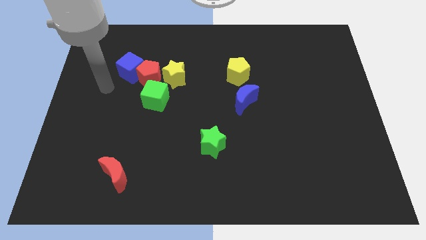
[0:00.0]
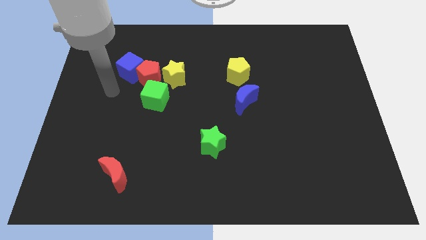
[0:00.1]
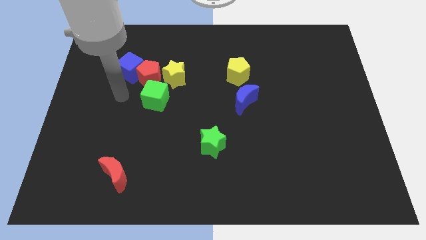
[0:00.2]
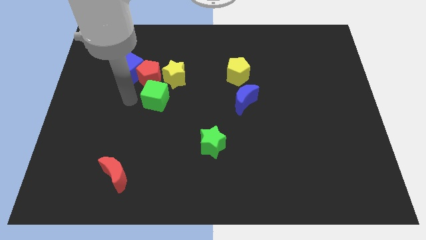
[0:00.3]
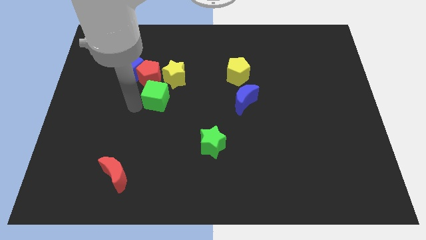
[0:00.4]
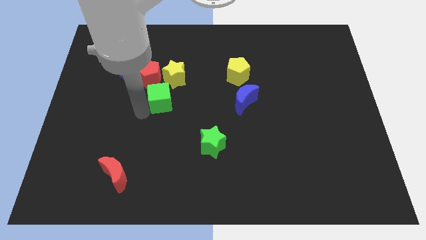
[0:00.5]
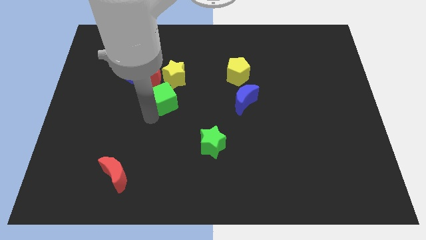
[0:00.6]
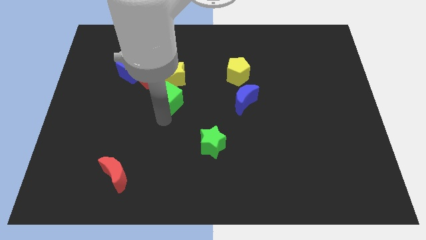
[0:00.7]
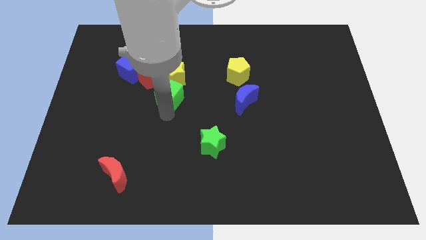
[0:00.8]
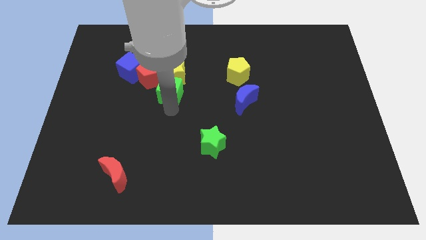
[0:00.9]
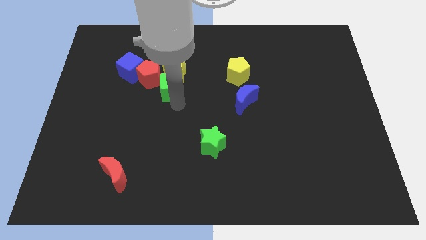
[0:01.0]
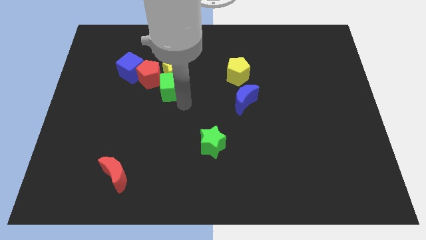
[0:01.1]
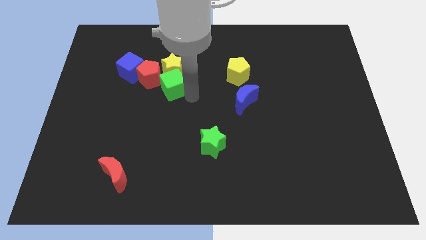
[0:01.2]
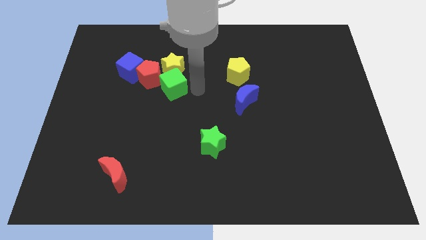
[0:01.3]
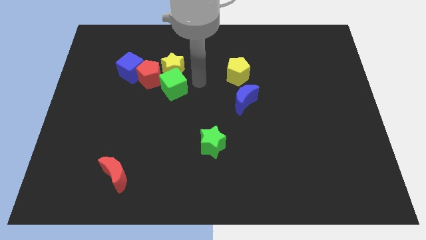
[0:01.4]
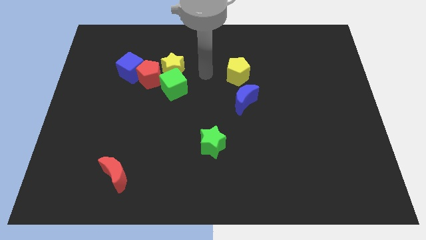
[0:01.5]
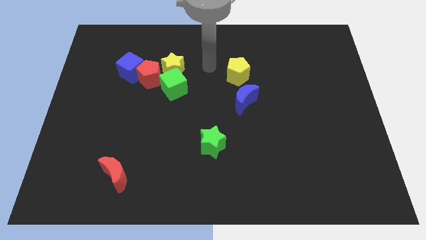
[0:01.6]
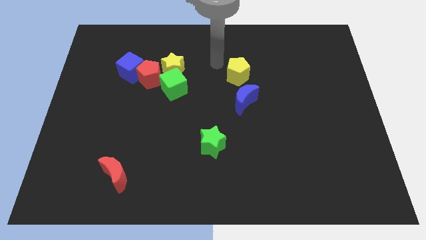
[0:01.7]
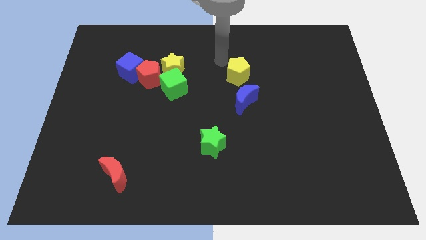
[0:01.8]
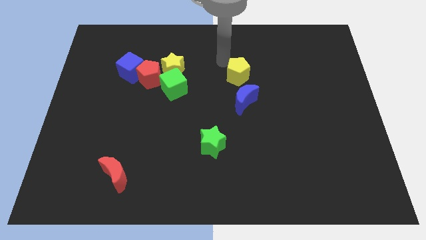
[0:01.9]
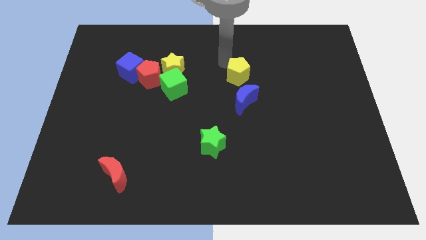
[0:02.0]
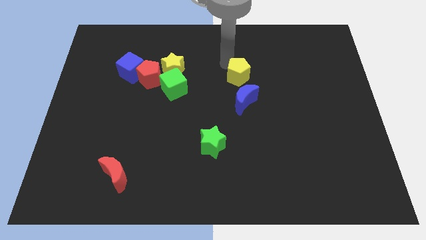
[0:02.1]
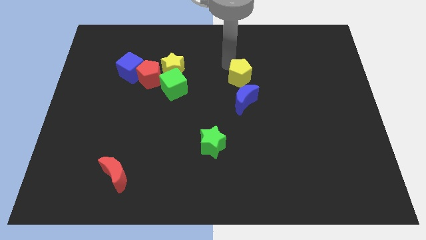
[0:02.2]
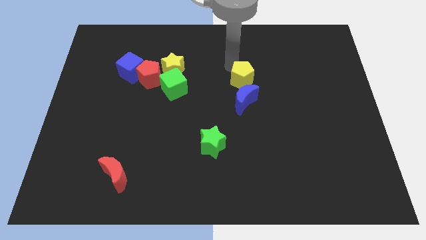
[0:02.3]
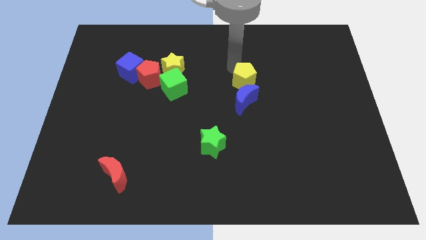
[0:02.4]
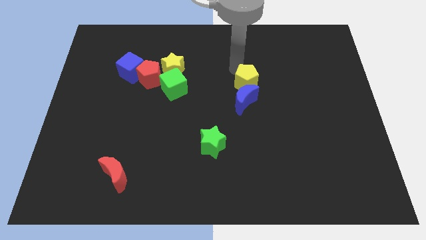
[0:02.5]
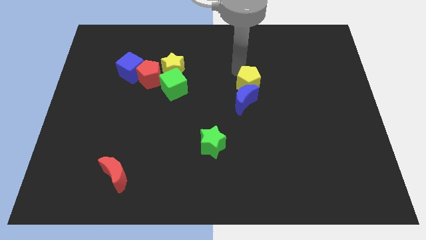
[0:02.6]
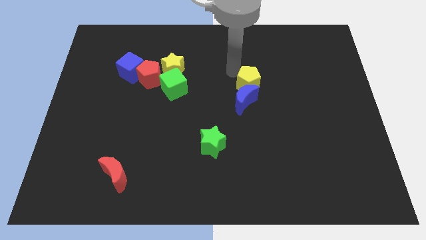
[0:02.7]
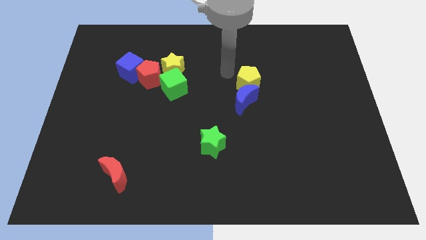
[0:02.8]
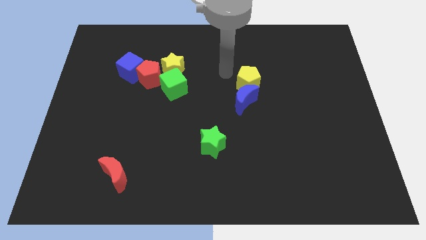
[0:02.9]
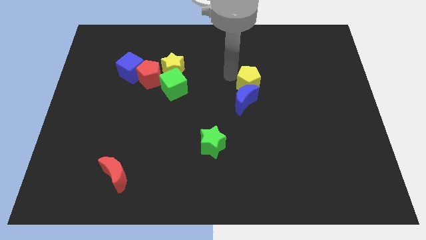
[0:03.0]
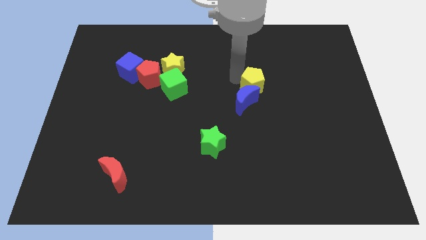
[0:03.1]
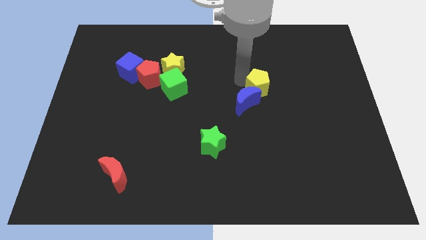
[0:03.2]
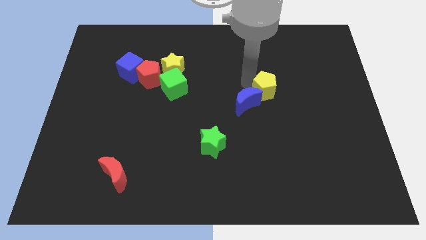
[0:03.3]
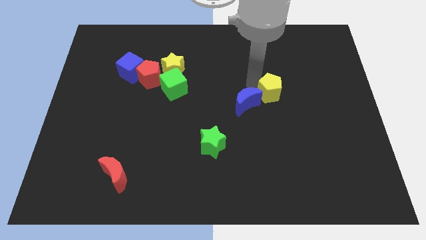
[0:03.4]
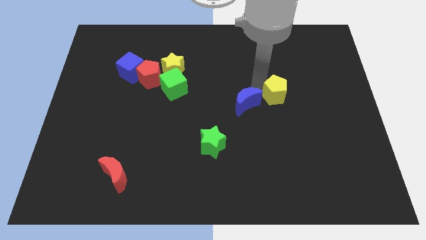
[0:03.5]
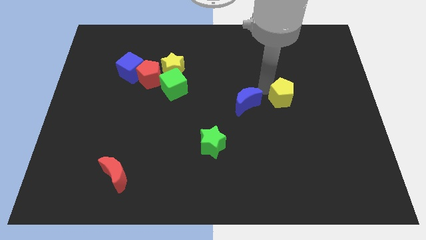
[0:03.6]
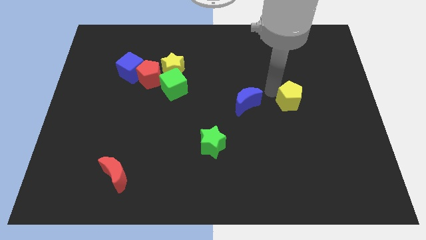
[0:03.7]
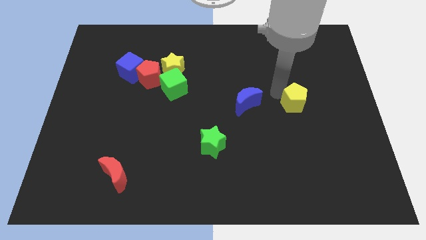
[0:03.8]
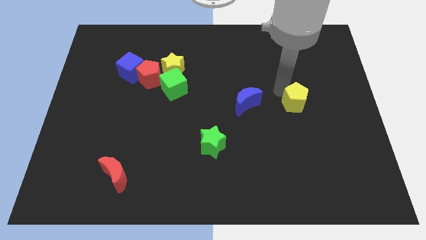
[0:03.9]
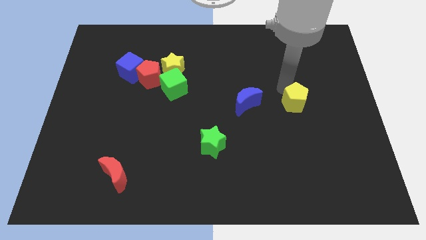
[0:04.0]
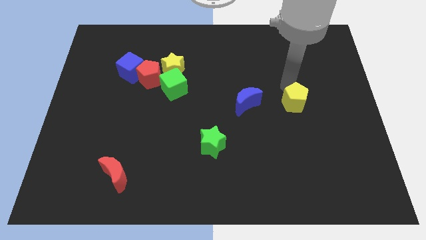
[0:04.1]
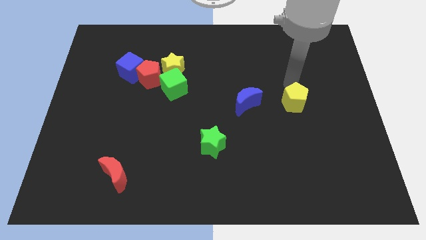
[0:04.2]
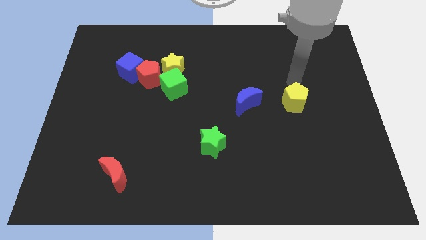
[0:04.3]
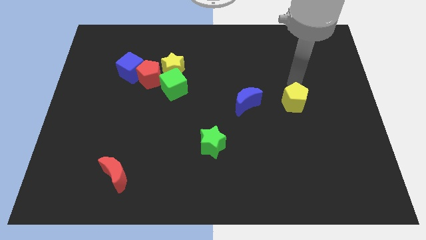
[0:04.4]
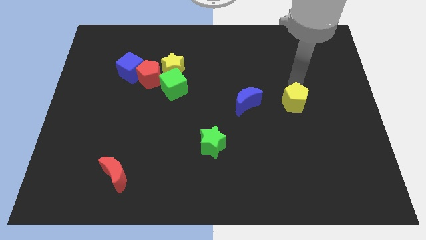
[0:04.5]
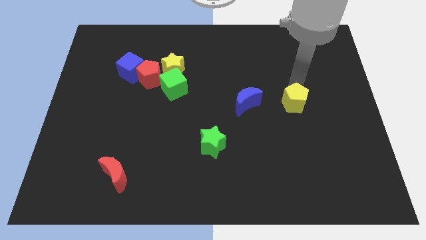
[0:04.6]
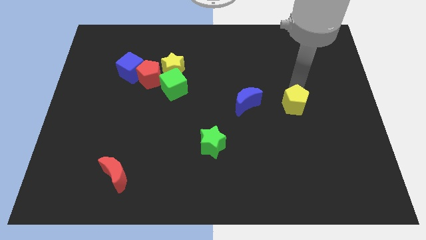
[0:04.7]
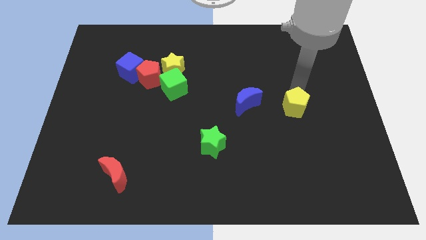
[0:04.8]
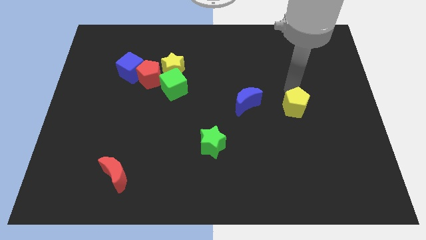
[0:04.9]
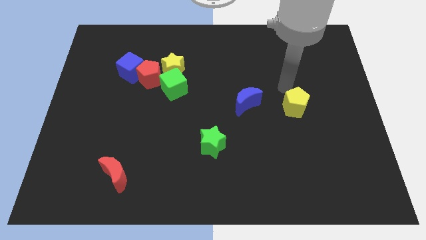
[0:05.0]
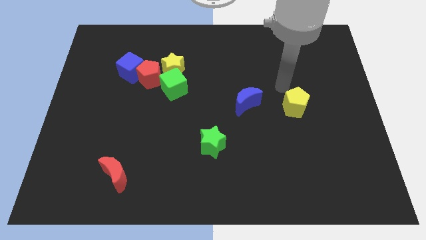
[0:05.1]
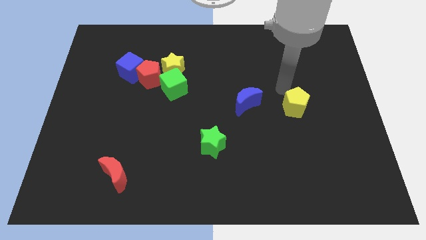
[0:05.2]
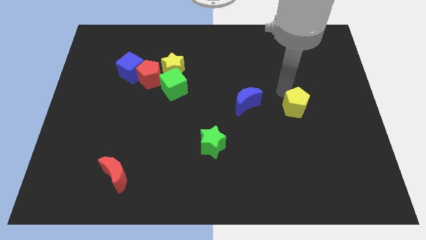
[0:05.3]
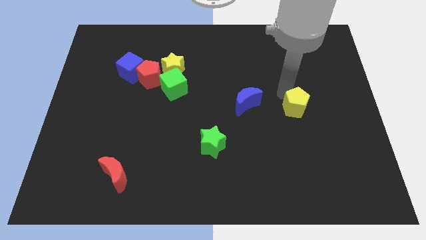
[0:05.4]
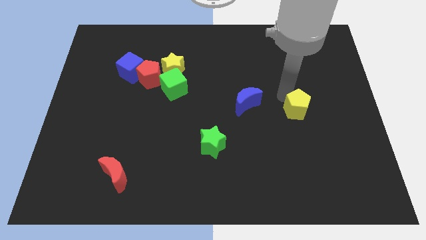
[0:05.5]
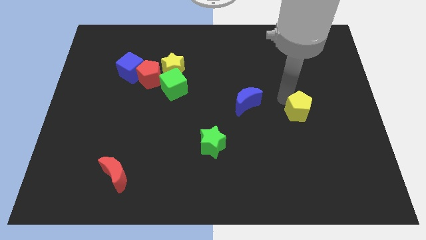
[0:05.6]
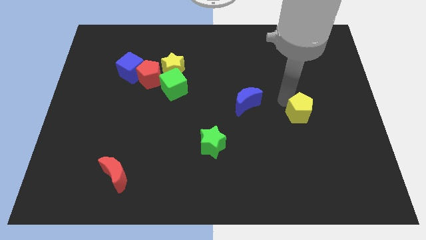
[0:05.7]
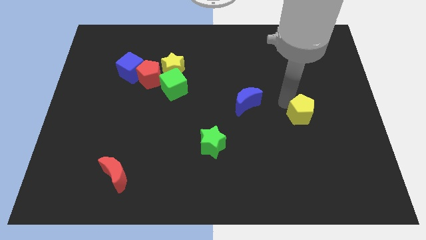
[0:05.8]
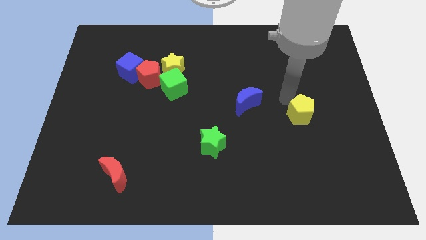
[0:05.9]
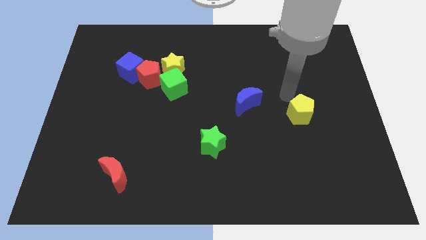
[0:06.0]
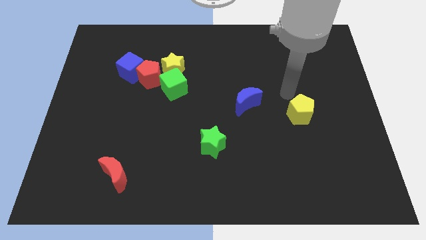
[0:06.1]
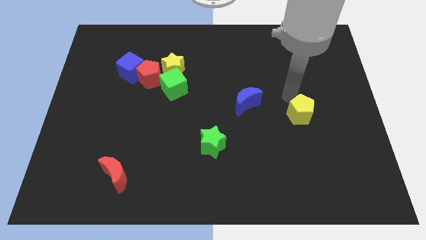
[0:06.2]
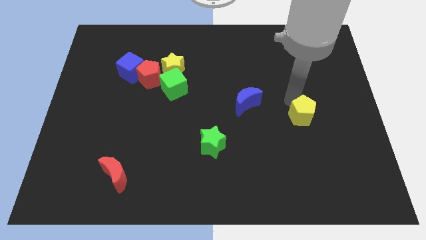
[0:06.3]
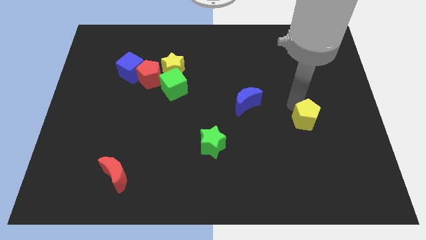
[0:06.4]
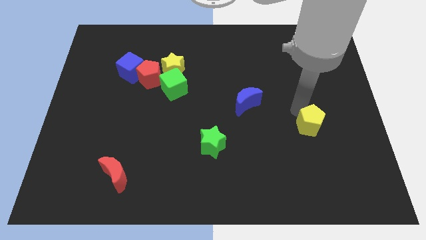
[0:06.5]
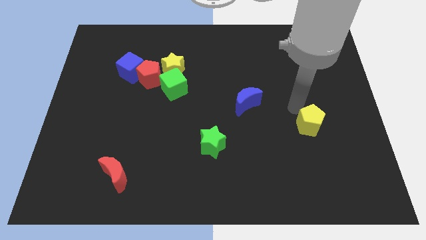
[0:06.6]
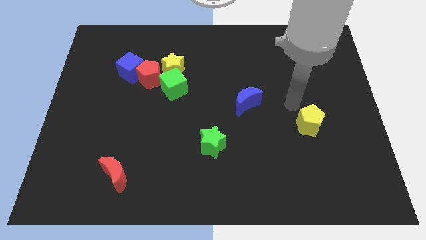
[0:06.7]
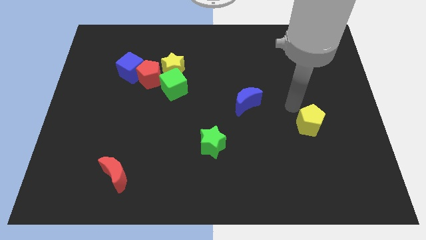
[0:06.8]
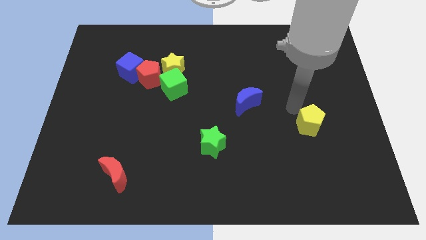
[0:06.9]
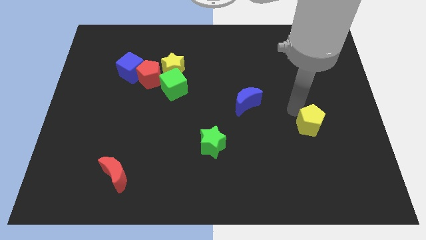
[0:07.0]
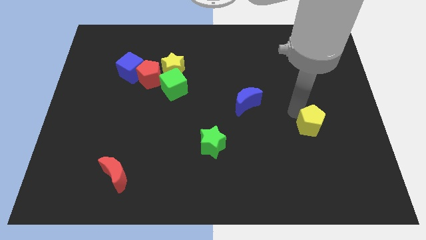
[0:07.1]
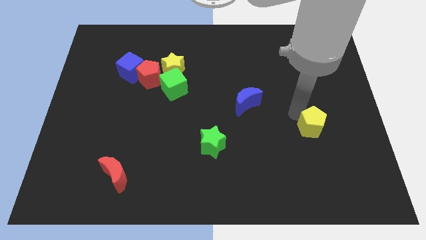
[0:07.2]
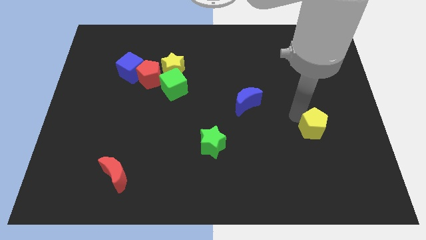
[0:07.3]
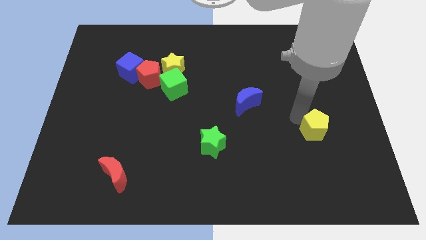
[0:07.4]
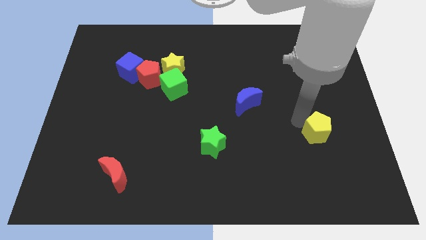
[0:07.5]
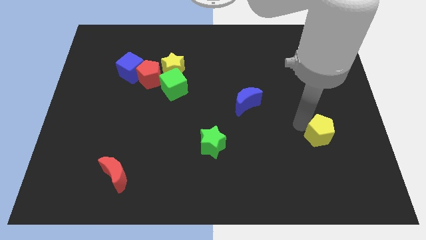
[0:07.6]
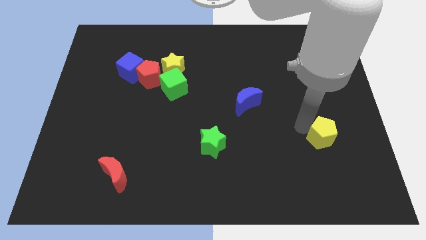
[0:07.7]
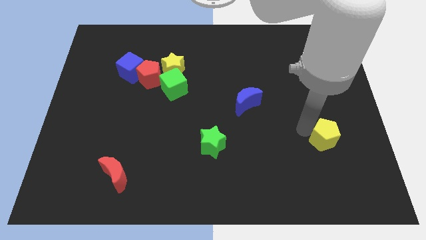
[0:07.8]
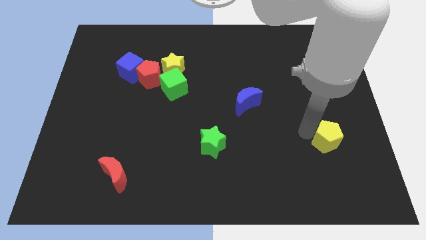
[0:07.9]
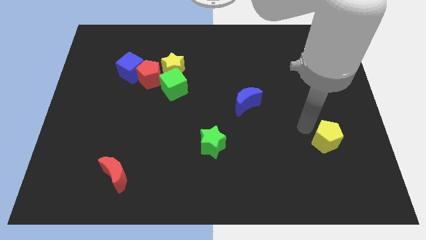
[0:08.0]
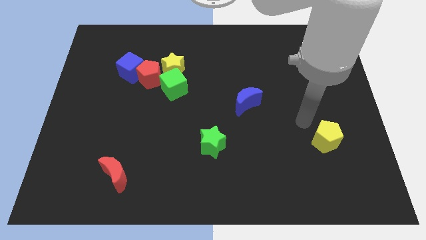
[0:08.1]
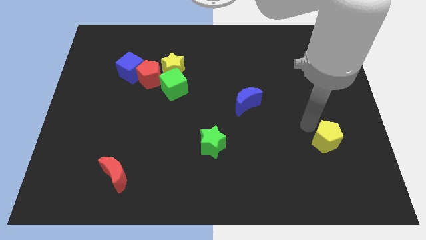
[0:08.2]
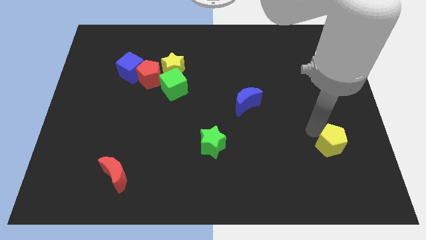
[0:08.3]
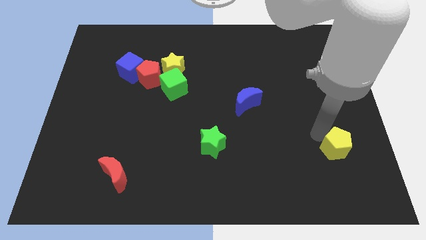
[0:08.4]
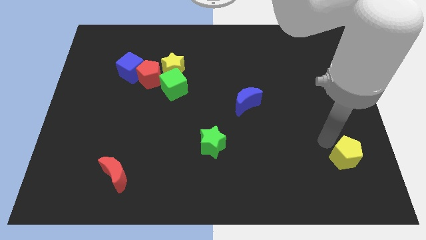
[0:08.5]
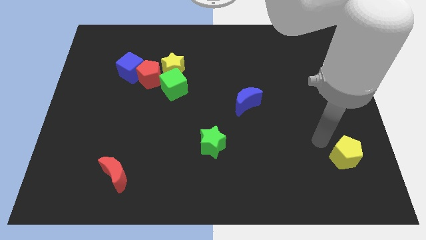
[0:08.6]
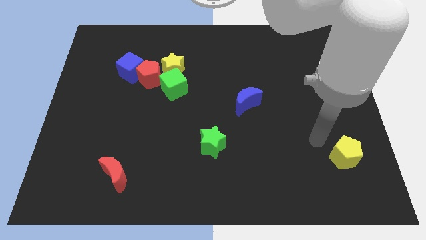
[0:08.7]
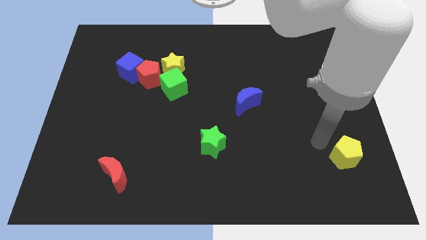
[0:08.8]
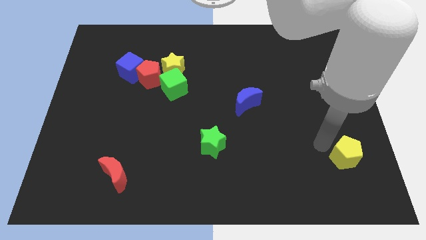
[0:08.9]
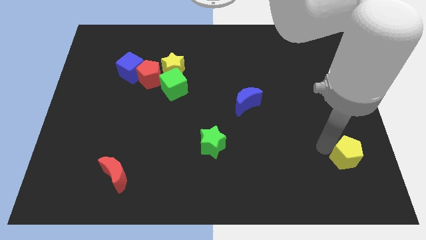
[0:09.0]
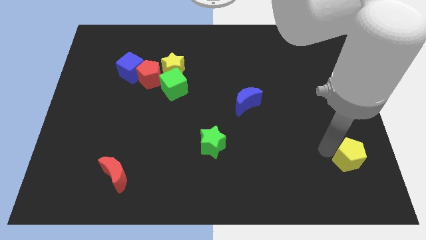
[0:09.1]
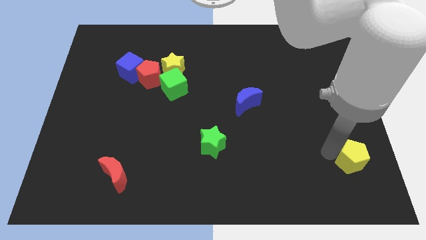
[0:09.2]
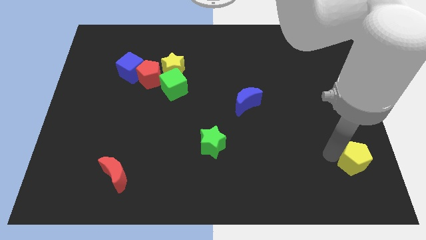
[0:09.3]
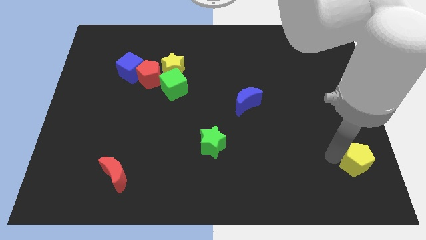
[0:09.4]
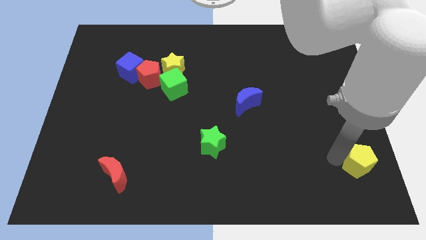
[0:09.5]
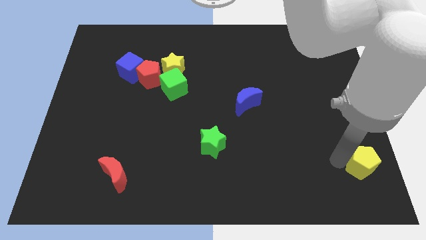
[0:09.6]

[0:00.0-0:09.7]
slide the yellow pentagon to the bottom right
